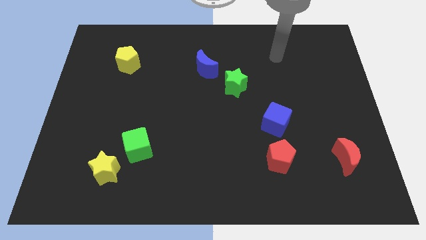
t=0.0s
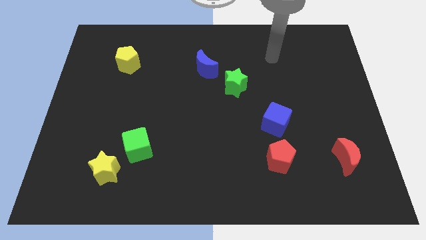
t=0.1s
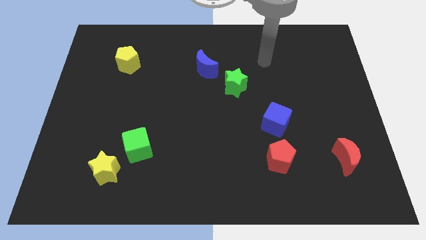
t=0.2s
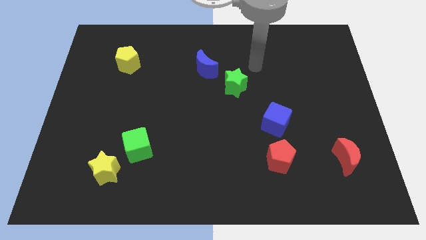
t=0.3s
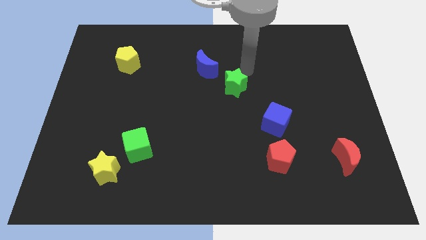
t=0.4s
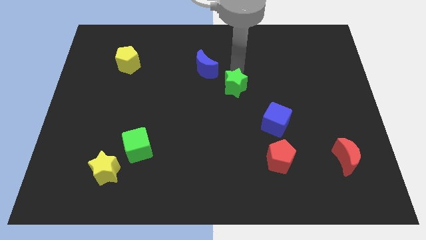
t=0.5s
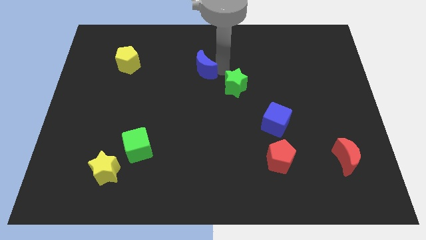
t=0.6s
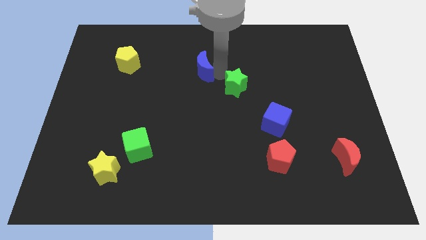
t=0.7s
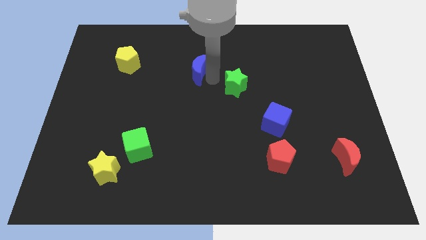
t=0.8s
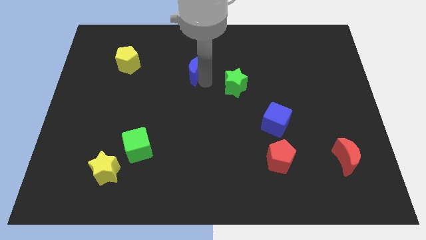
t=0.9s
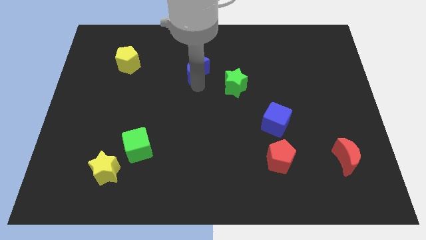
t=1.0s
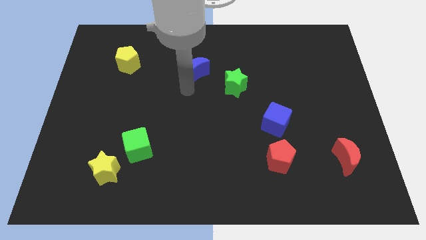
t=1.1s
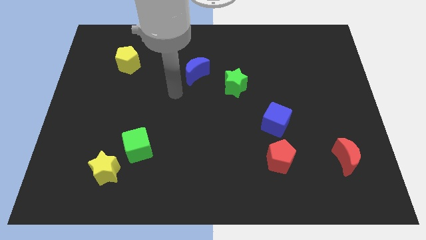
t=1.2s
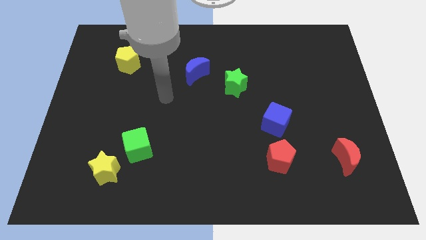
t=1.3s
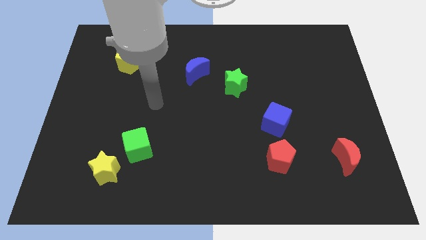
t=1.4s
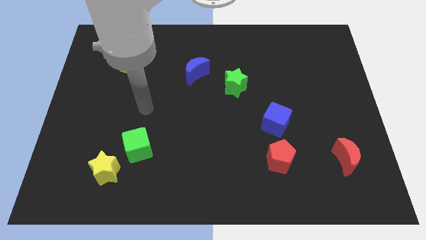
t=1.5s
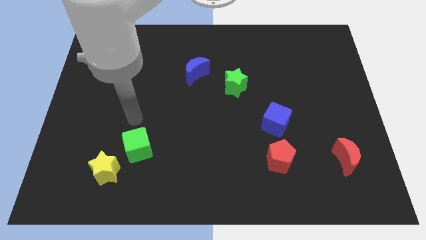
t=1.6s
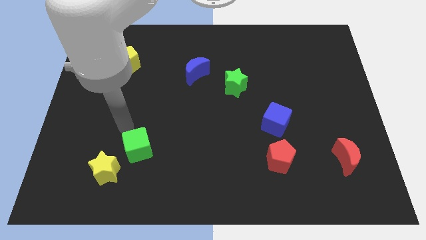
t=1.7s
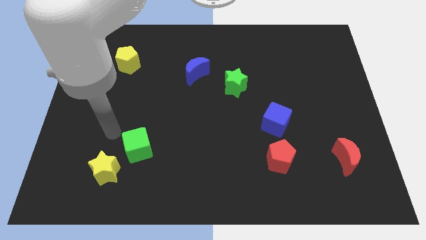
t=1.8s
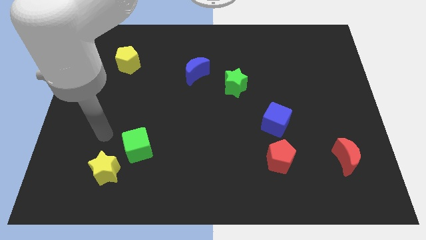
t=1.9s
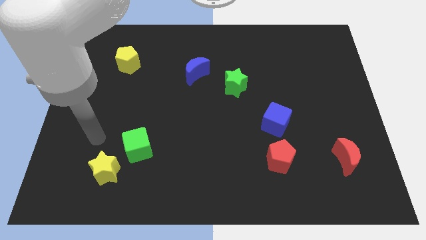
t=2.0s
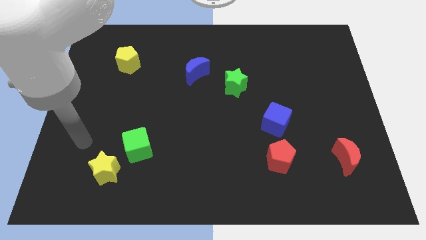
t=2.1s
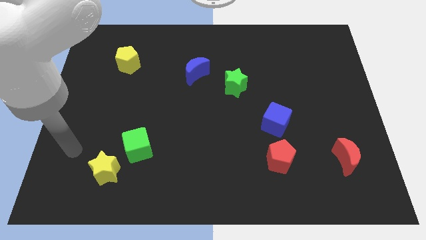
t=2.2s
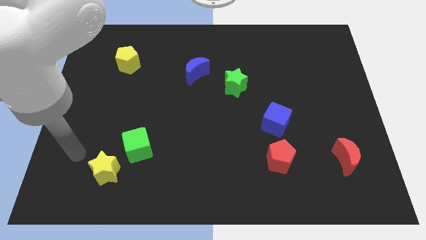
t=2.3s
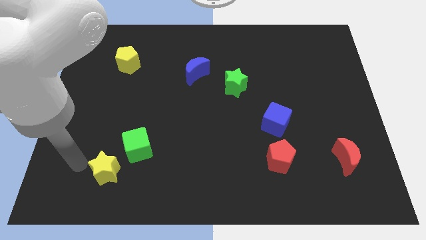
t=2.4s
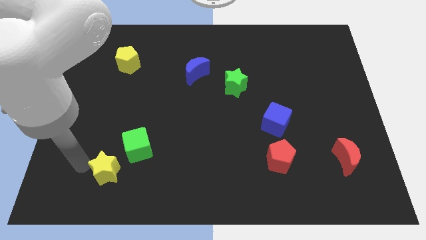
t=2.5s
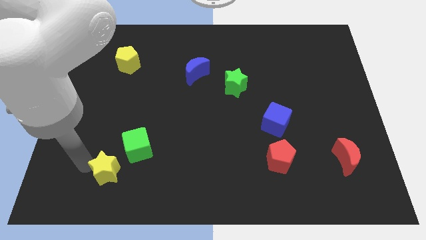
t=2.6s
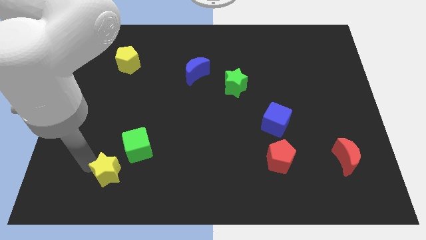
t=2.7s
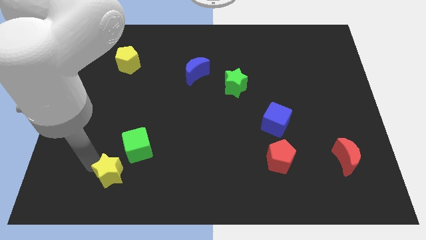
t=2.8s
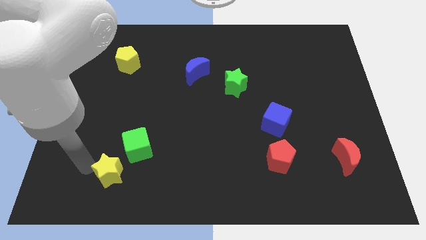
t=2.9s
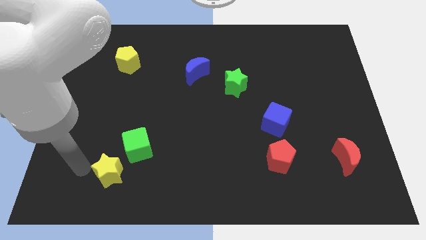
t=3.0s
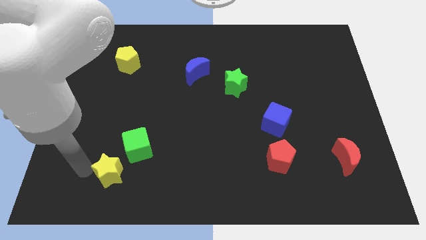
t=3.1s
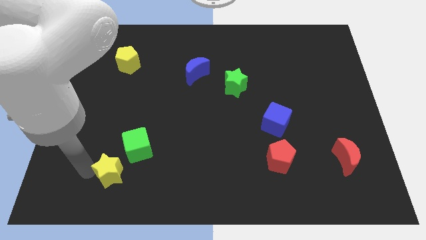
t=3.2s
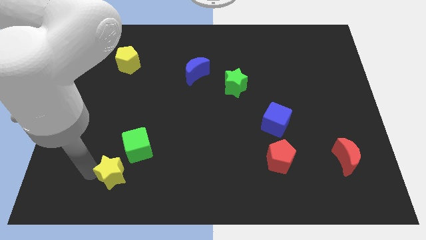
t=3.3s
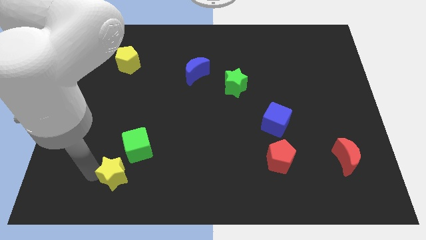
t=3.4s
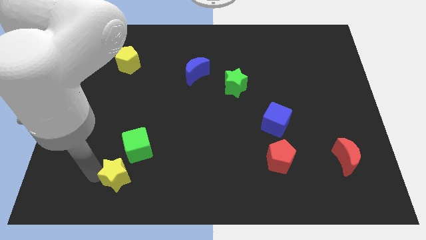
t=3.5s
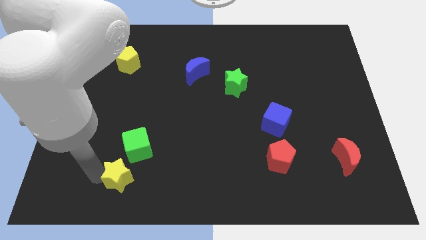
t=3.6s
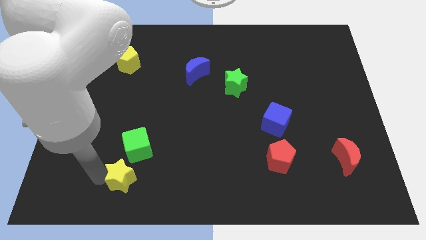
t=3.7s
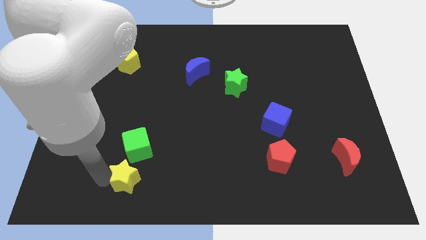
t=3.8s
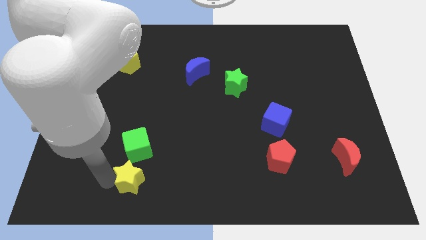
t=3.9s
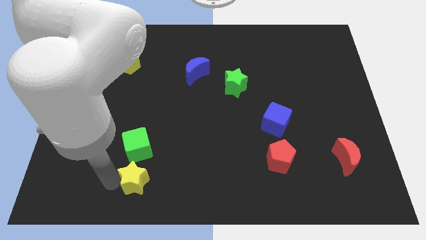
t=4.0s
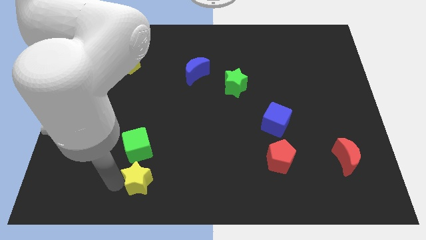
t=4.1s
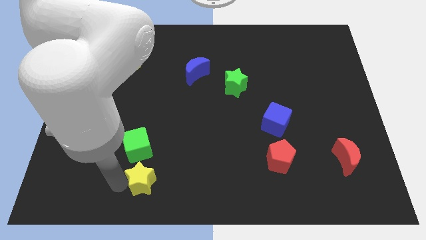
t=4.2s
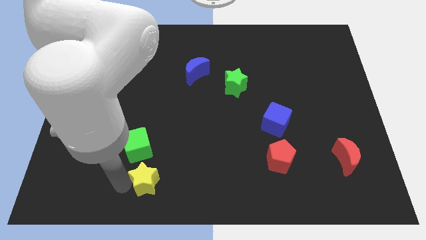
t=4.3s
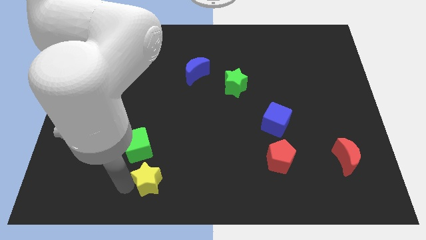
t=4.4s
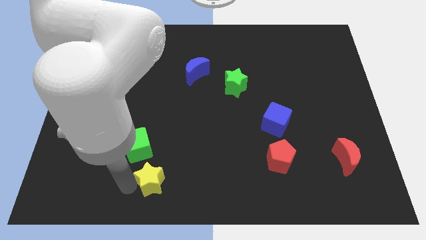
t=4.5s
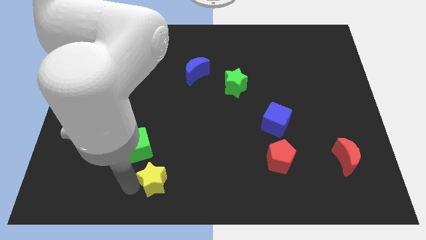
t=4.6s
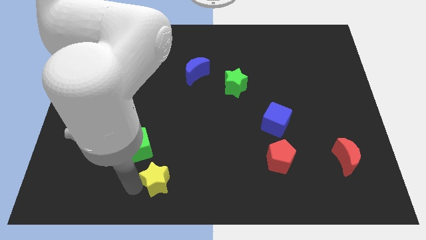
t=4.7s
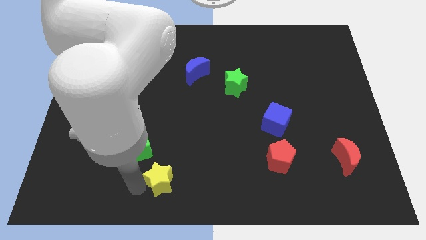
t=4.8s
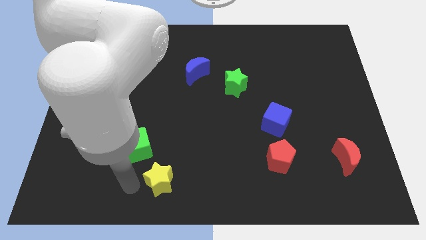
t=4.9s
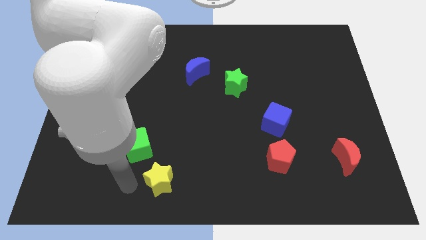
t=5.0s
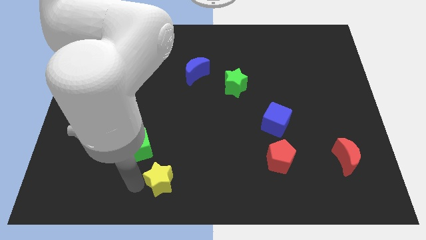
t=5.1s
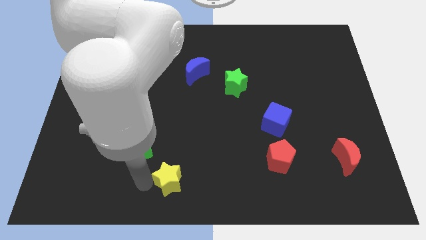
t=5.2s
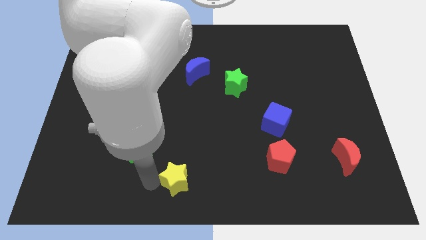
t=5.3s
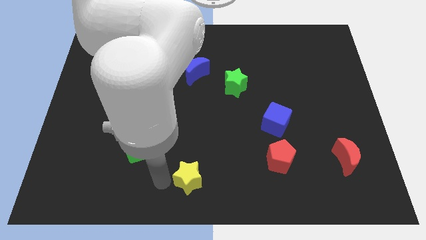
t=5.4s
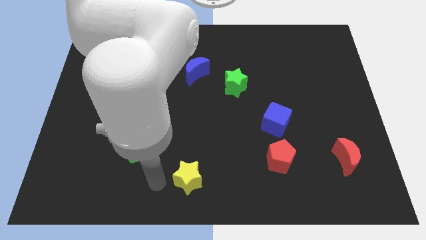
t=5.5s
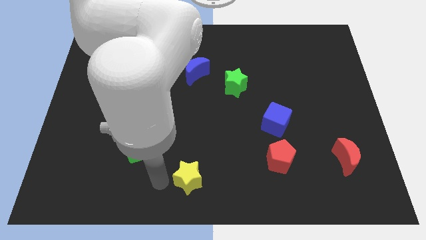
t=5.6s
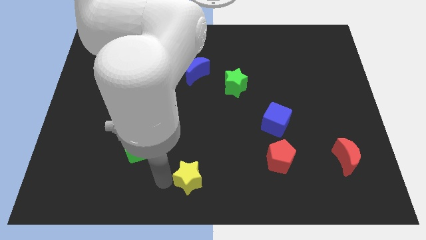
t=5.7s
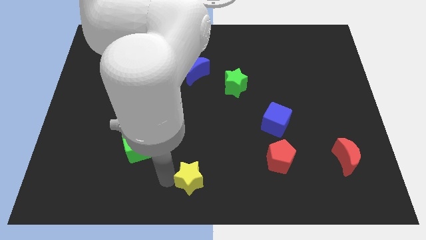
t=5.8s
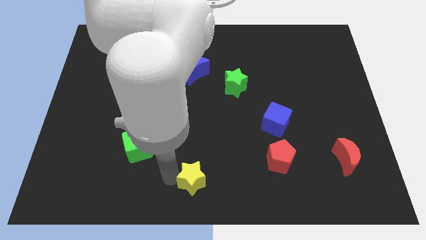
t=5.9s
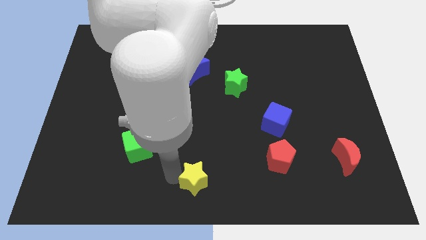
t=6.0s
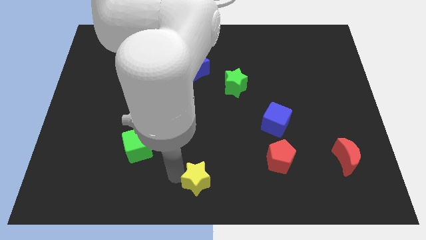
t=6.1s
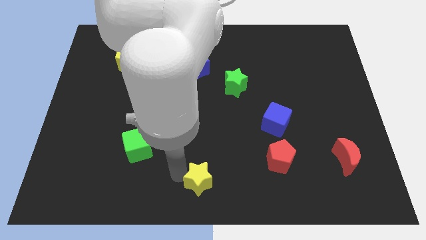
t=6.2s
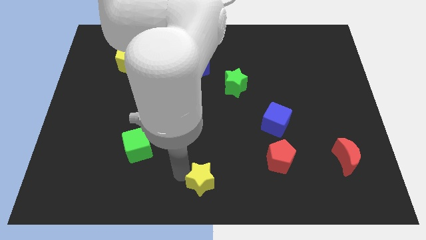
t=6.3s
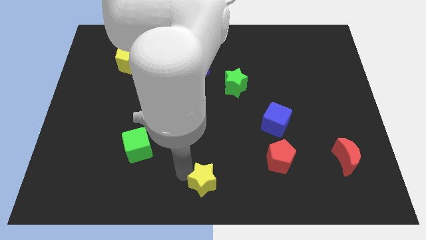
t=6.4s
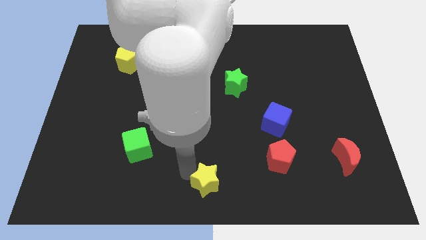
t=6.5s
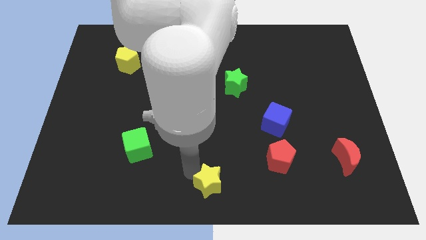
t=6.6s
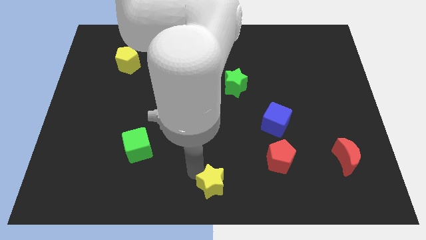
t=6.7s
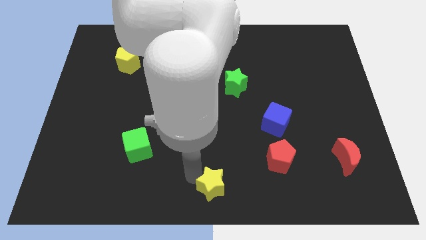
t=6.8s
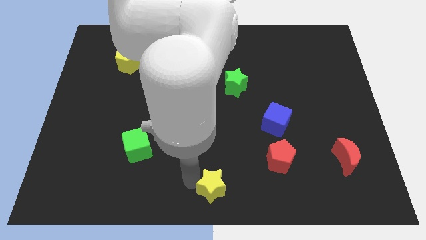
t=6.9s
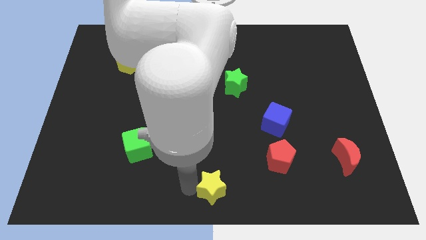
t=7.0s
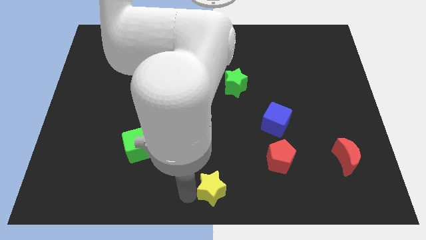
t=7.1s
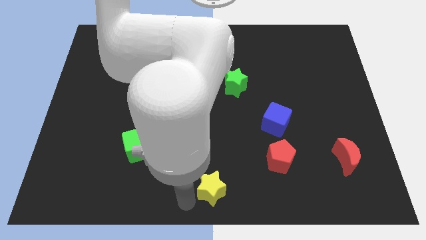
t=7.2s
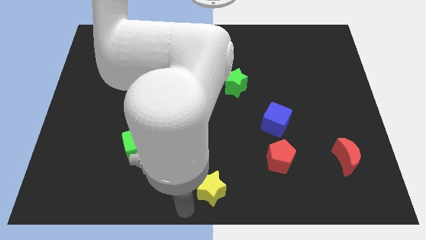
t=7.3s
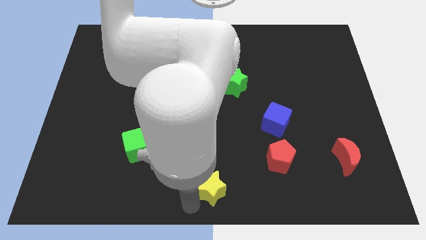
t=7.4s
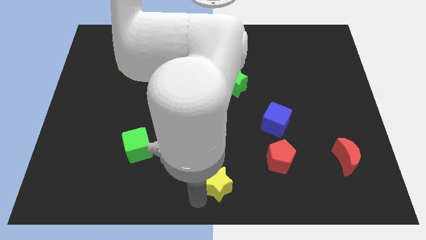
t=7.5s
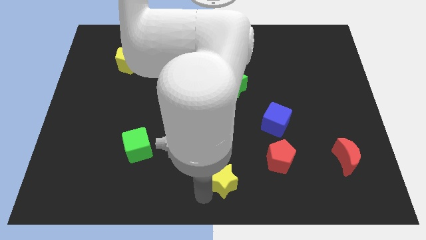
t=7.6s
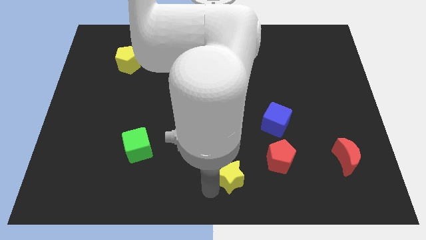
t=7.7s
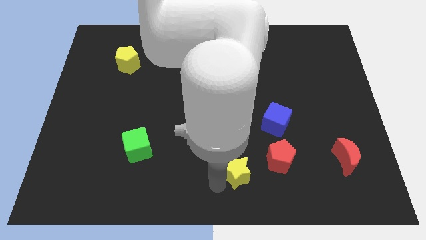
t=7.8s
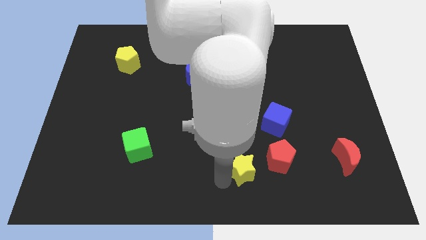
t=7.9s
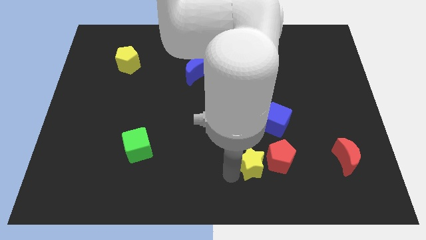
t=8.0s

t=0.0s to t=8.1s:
put the yellow star close to the red pentagon
